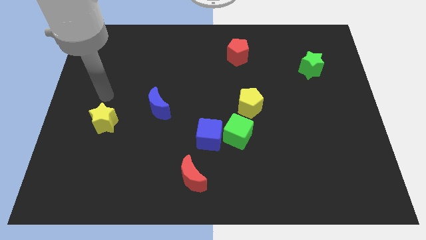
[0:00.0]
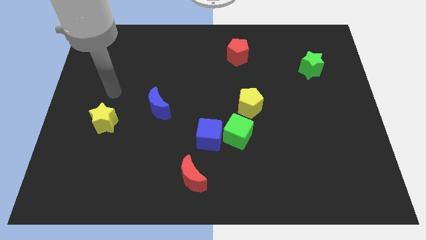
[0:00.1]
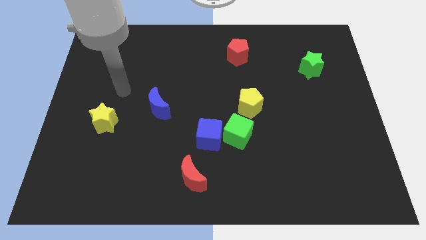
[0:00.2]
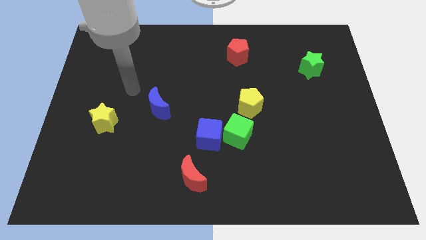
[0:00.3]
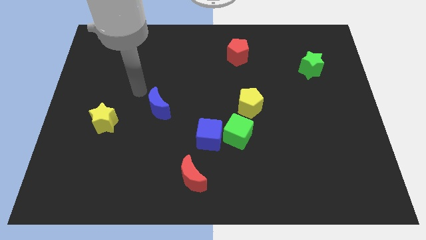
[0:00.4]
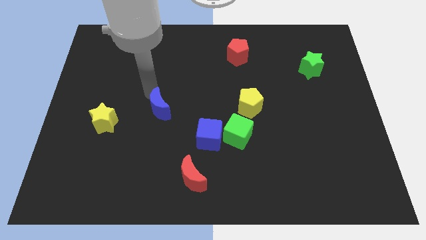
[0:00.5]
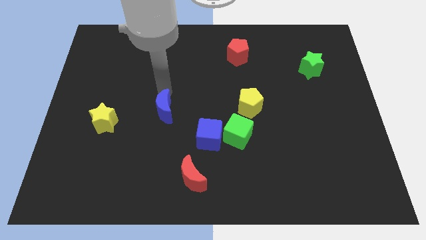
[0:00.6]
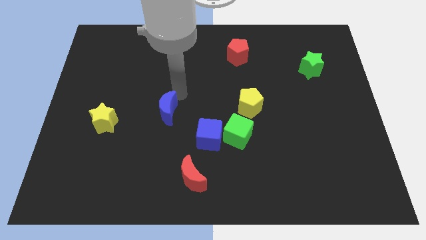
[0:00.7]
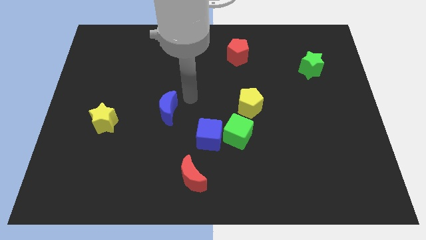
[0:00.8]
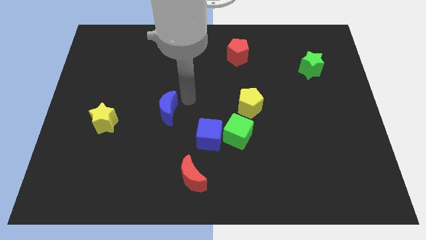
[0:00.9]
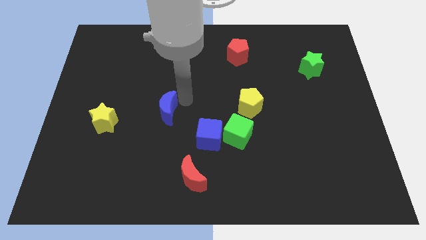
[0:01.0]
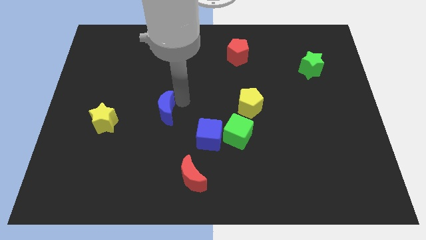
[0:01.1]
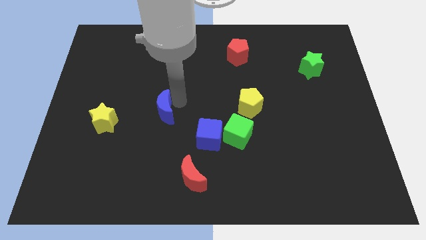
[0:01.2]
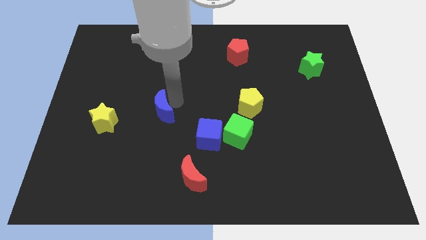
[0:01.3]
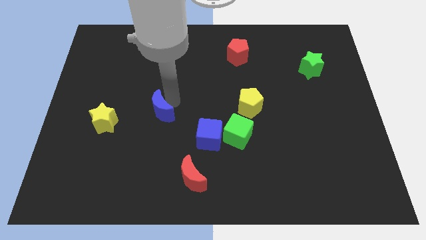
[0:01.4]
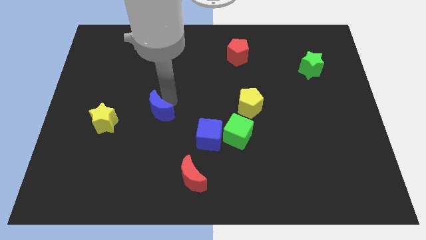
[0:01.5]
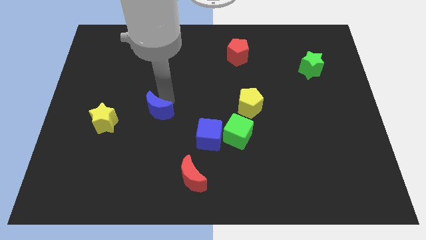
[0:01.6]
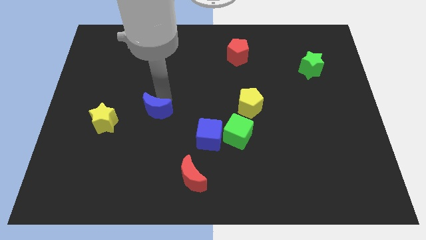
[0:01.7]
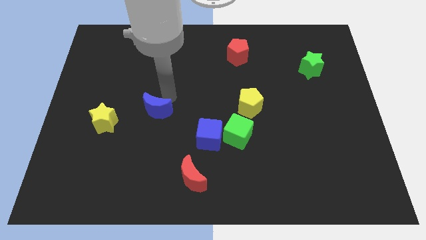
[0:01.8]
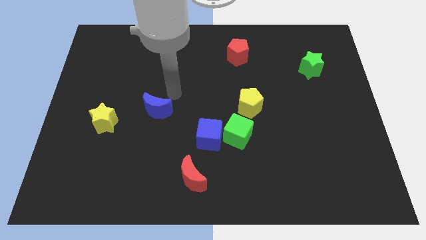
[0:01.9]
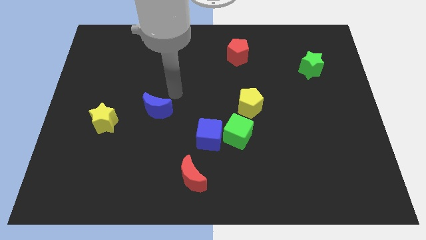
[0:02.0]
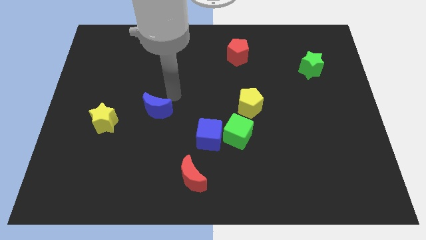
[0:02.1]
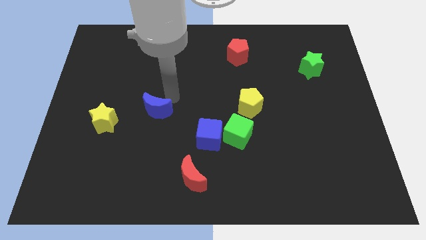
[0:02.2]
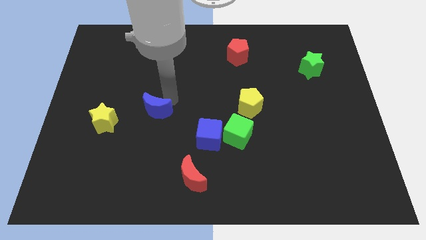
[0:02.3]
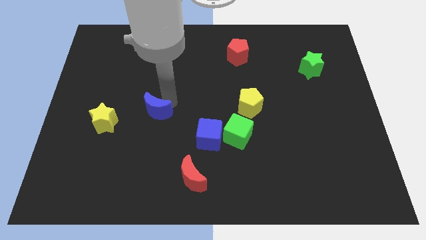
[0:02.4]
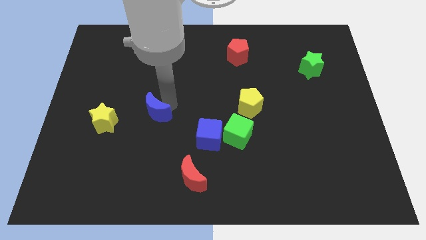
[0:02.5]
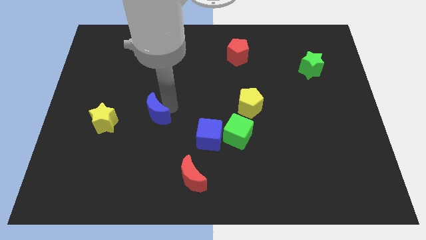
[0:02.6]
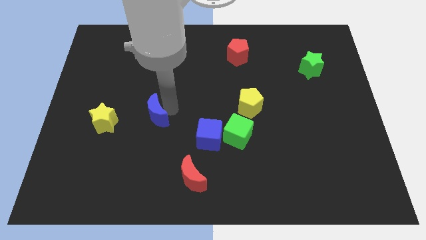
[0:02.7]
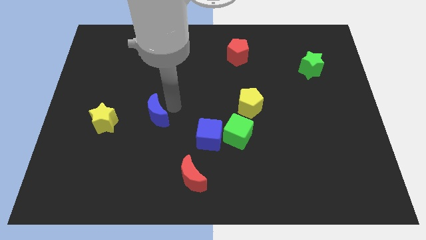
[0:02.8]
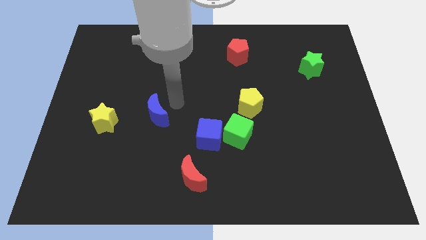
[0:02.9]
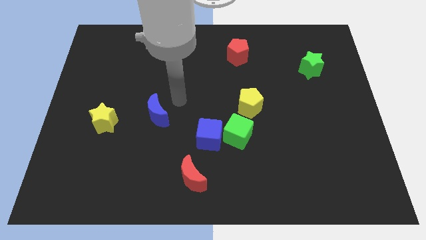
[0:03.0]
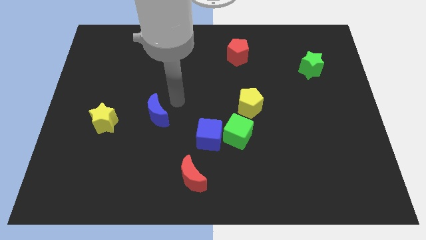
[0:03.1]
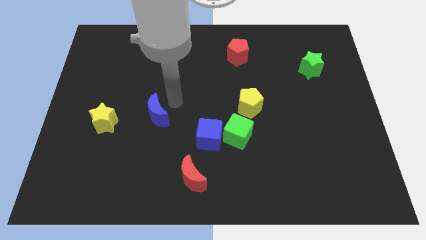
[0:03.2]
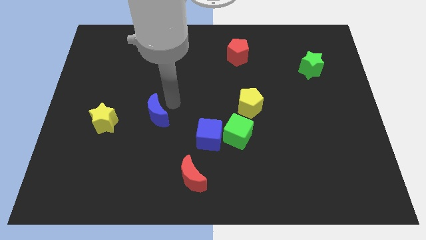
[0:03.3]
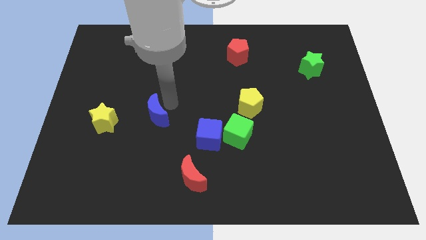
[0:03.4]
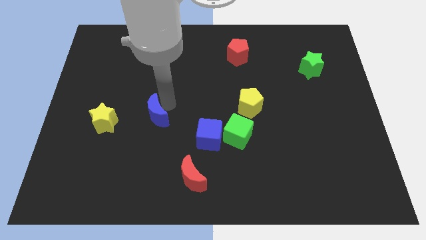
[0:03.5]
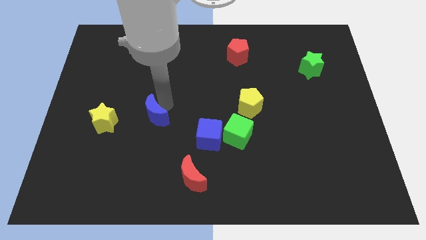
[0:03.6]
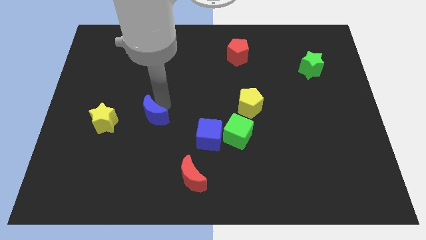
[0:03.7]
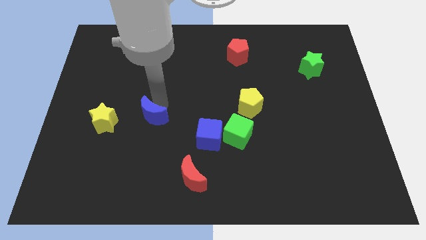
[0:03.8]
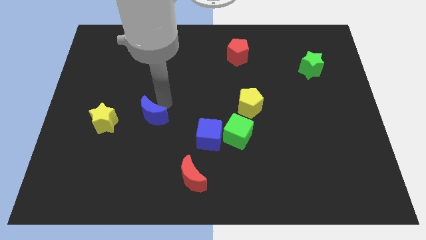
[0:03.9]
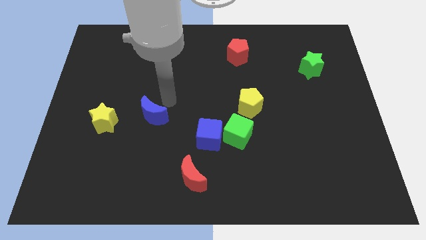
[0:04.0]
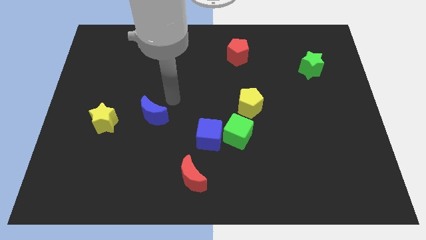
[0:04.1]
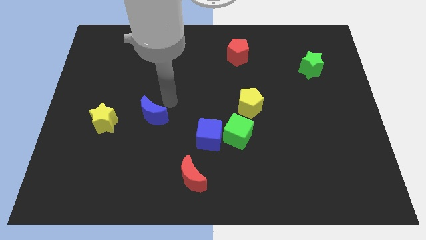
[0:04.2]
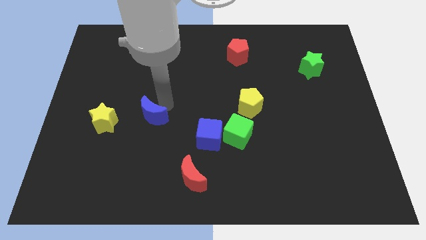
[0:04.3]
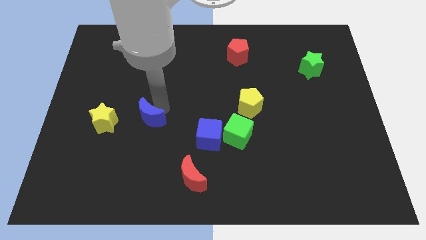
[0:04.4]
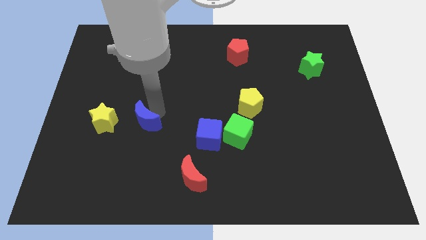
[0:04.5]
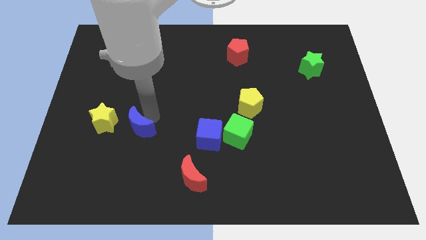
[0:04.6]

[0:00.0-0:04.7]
put the blue moon to the bottom right side of the yellow star

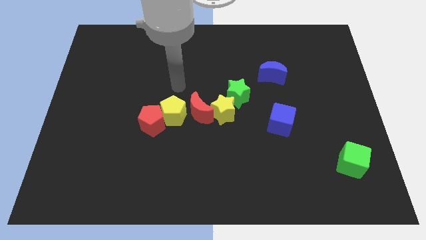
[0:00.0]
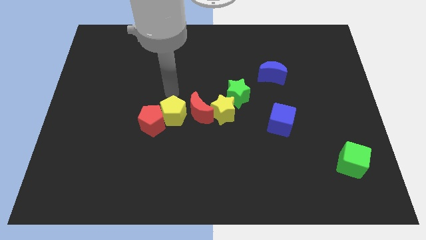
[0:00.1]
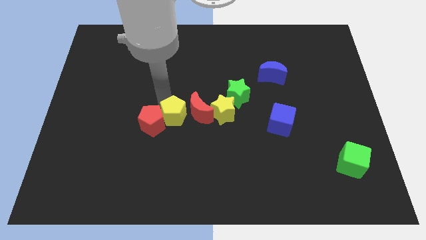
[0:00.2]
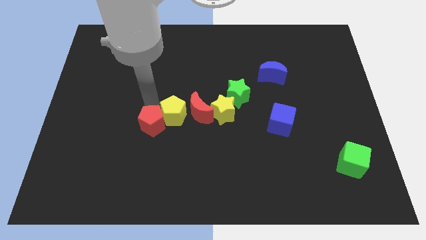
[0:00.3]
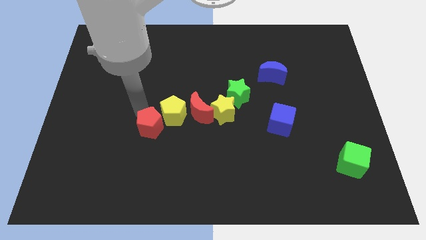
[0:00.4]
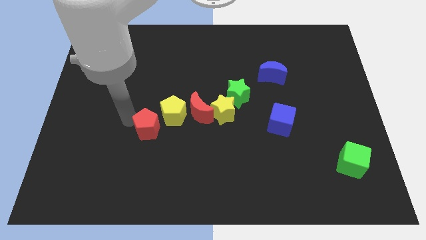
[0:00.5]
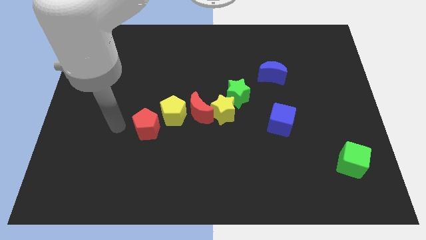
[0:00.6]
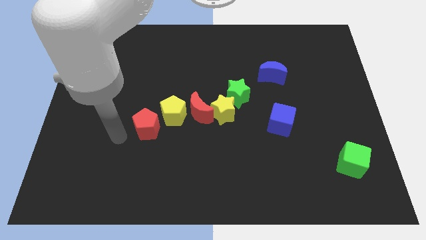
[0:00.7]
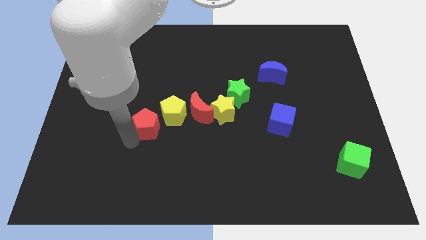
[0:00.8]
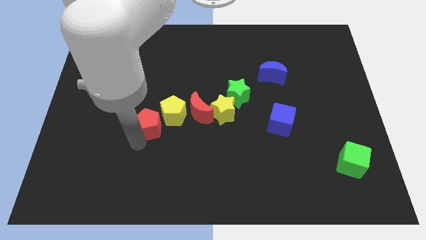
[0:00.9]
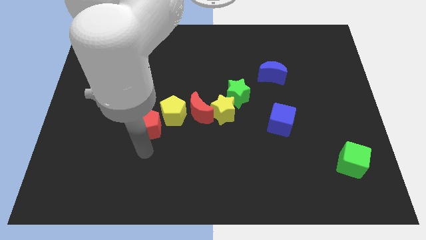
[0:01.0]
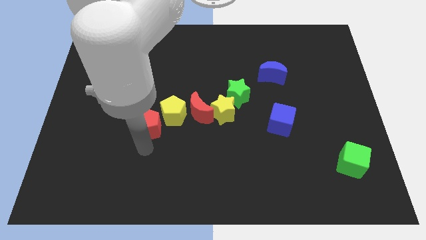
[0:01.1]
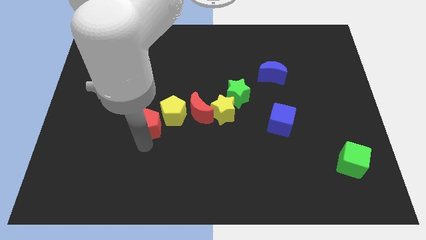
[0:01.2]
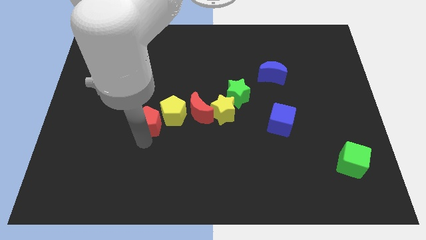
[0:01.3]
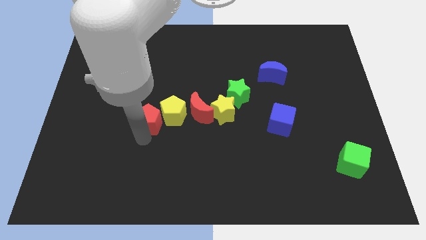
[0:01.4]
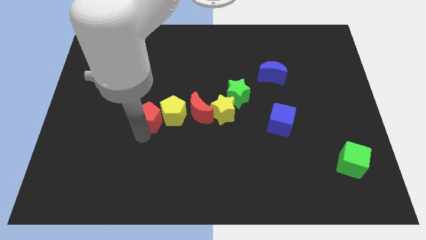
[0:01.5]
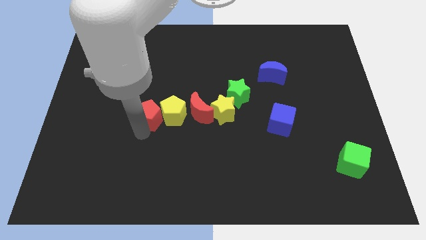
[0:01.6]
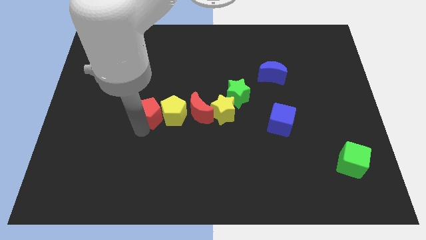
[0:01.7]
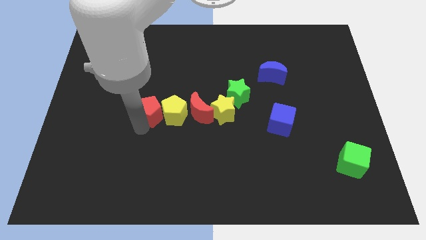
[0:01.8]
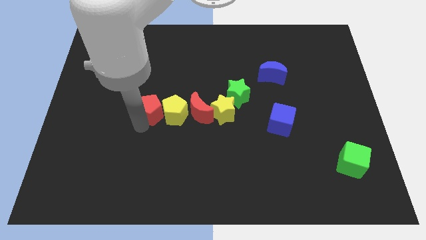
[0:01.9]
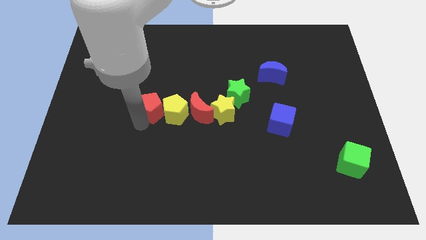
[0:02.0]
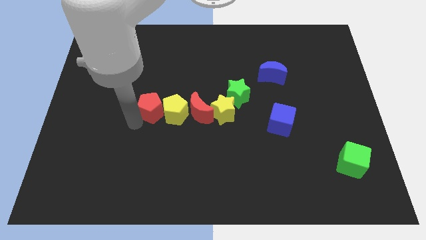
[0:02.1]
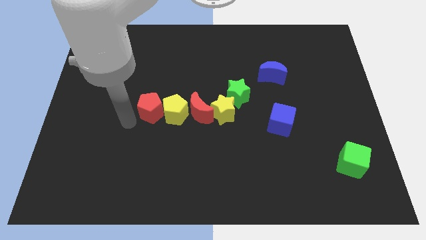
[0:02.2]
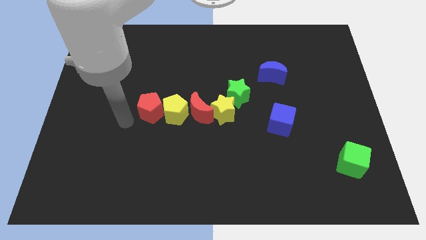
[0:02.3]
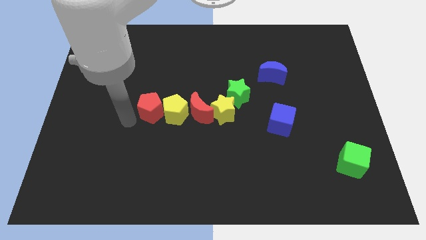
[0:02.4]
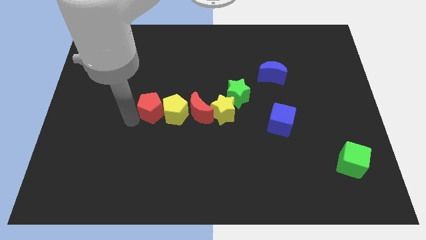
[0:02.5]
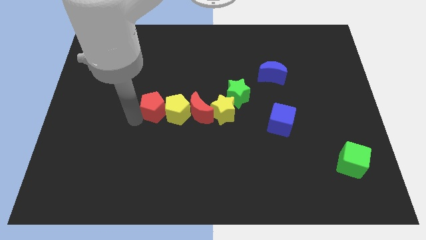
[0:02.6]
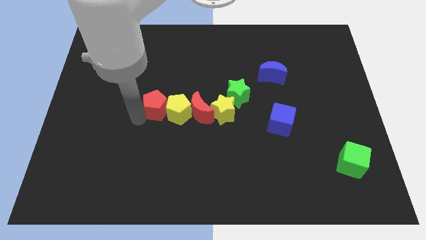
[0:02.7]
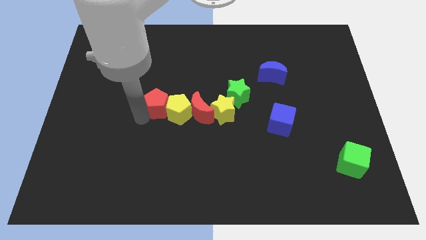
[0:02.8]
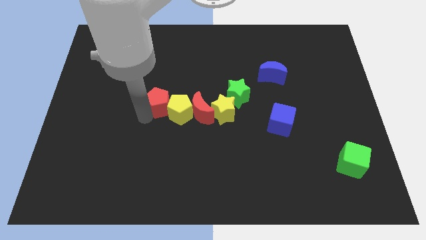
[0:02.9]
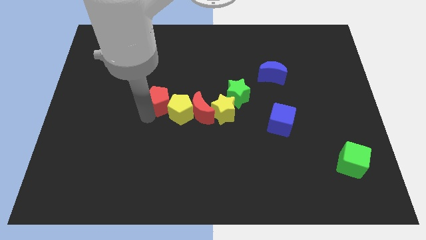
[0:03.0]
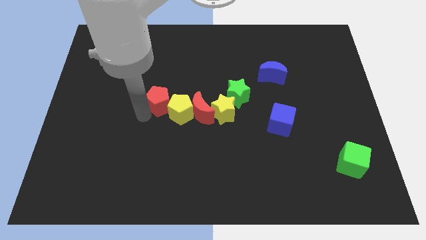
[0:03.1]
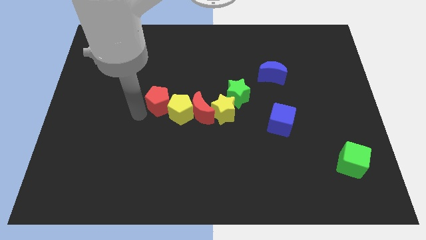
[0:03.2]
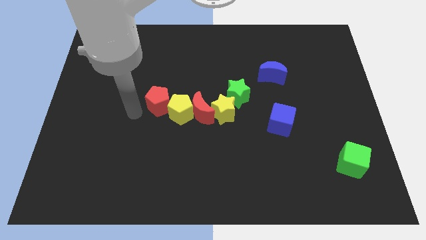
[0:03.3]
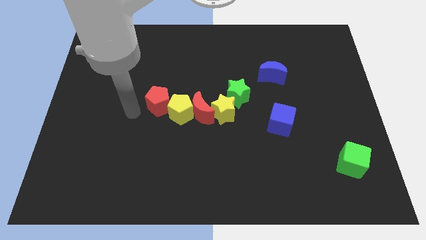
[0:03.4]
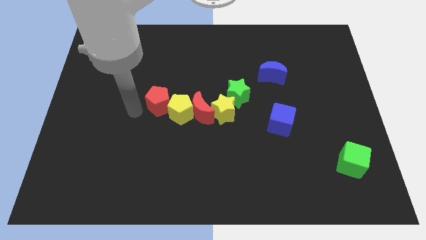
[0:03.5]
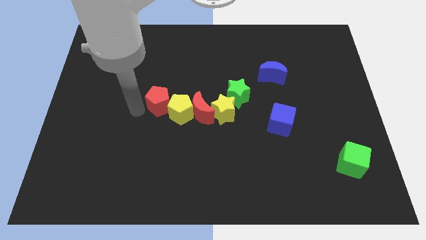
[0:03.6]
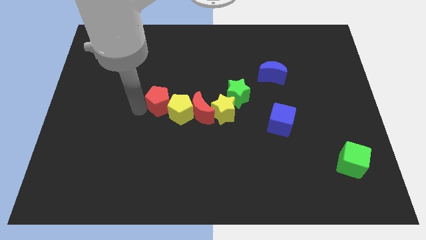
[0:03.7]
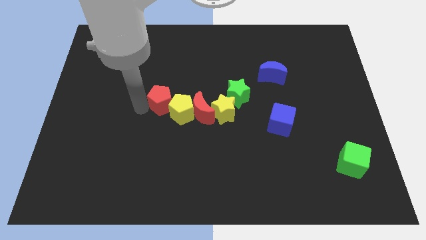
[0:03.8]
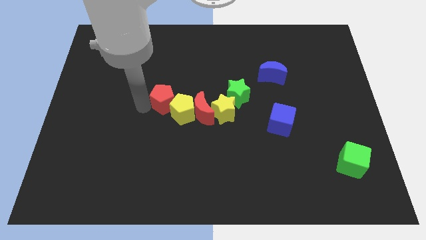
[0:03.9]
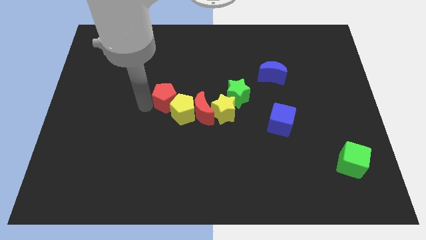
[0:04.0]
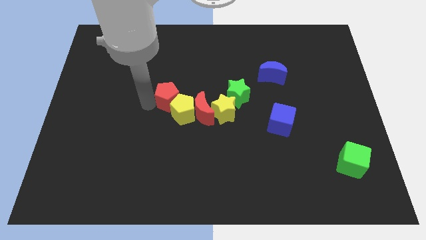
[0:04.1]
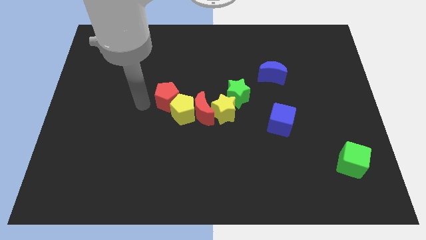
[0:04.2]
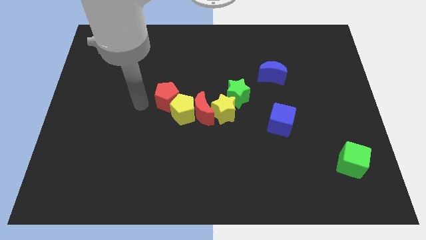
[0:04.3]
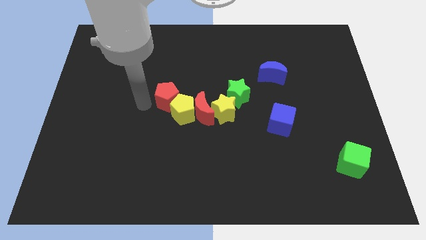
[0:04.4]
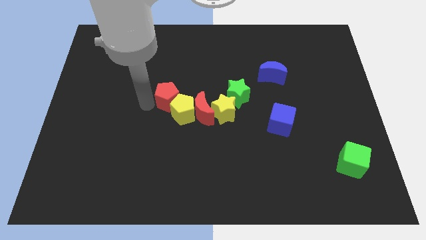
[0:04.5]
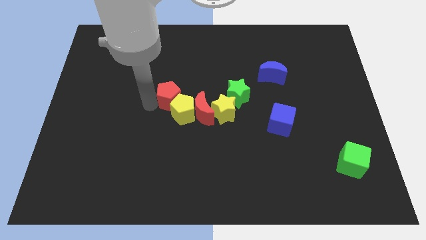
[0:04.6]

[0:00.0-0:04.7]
move the red pentagon left of the green star
